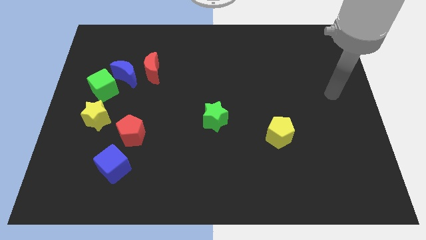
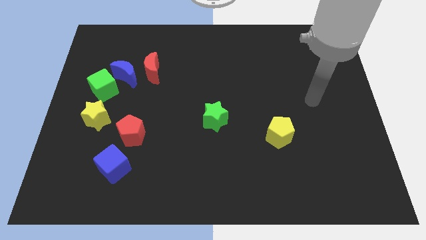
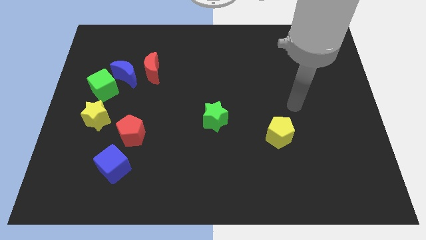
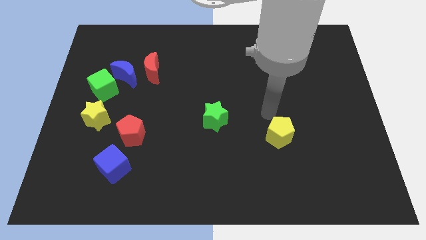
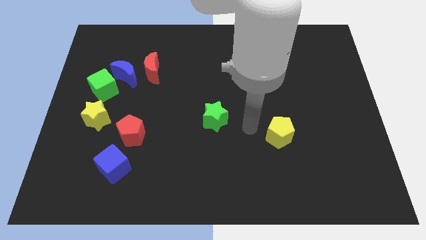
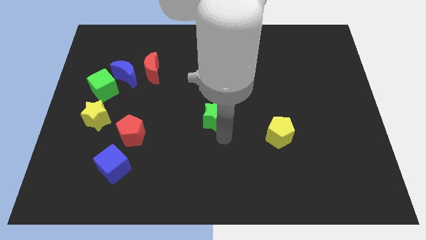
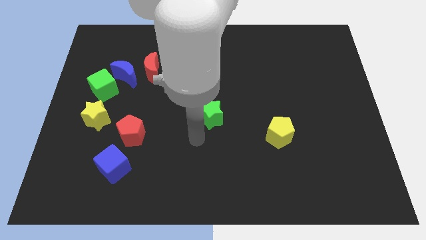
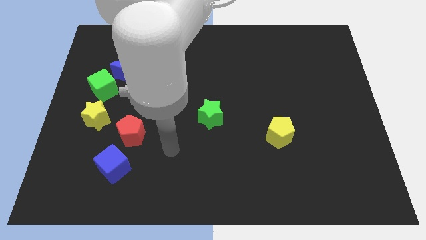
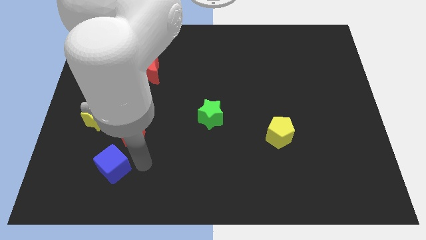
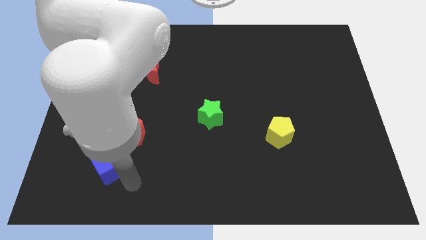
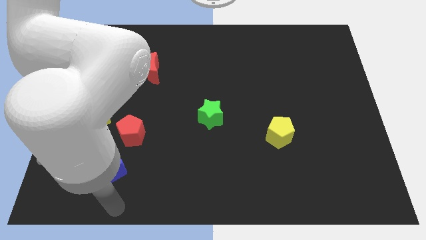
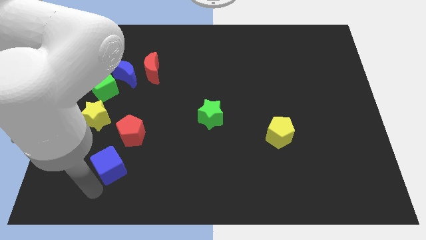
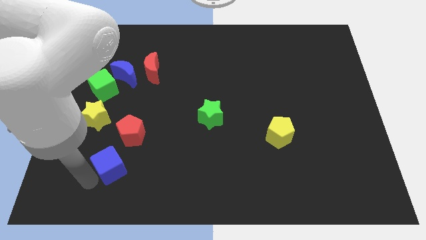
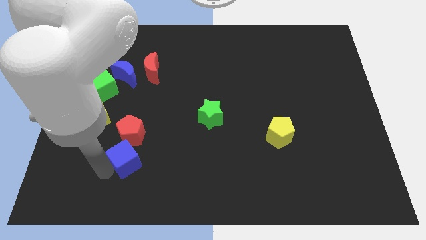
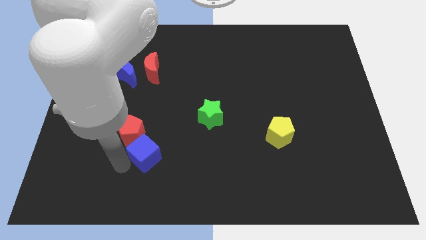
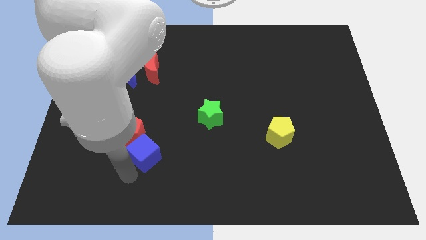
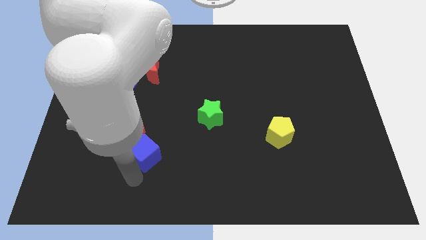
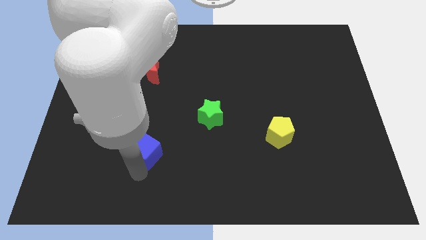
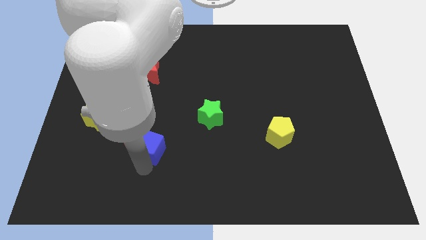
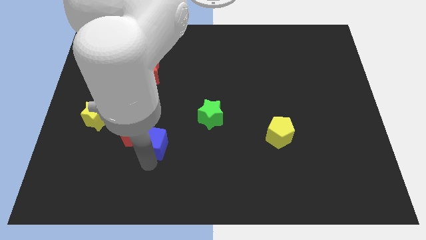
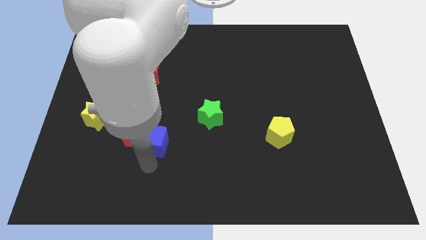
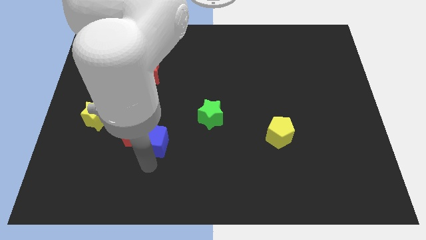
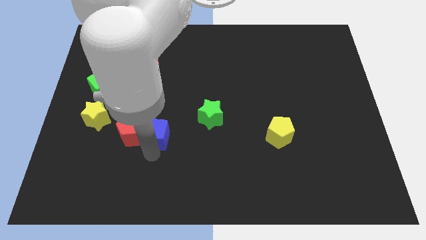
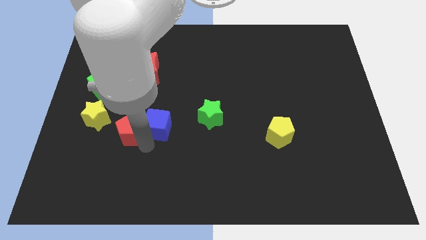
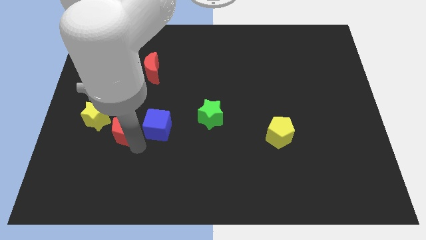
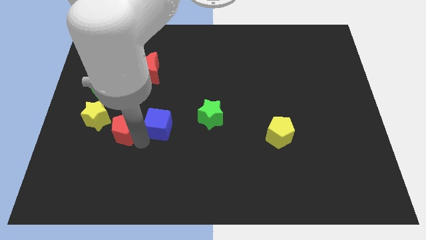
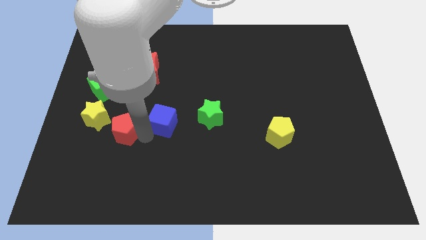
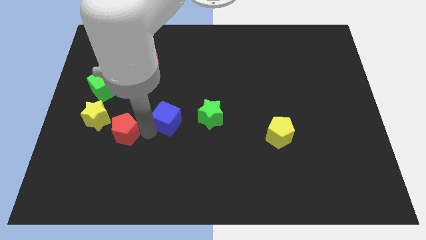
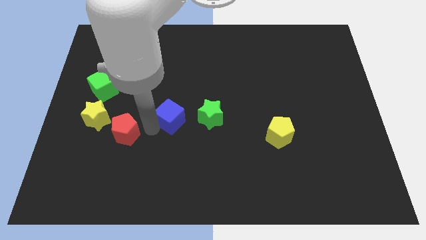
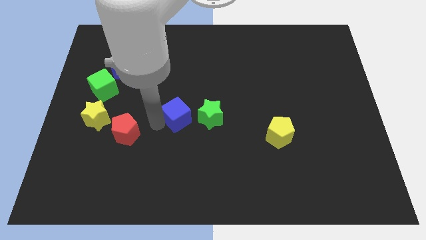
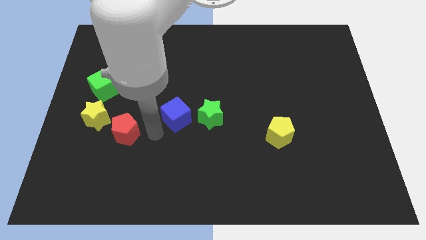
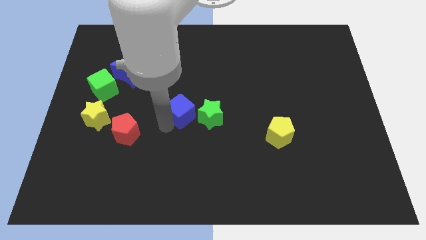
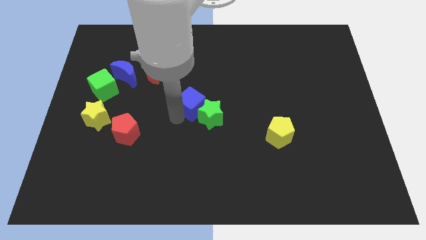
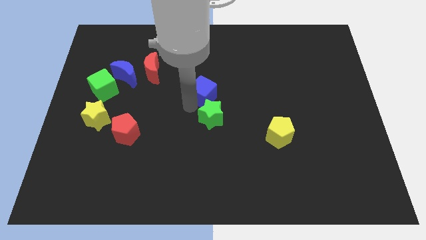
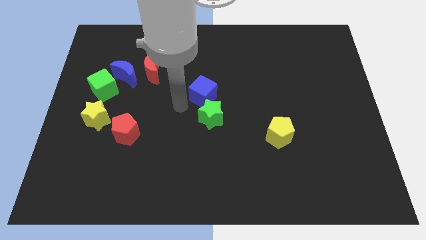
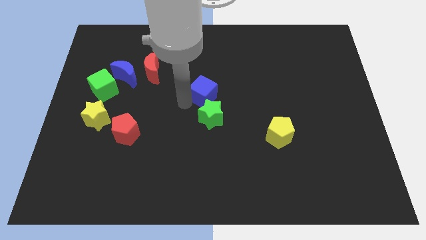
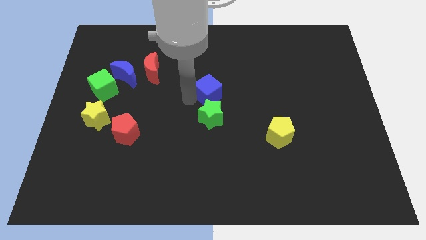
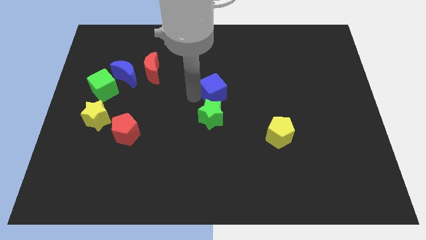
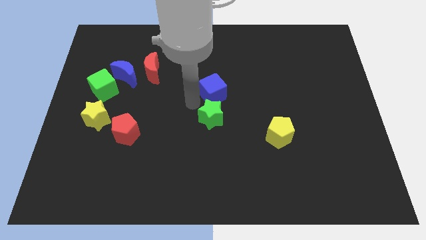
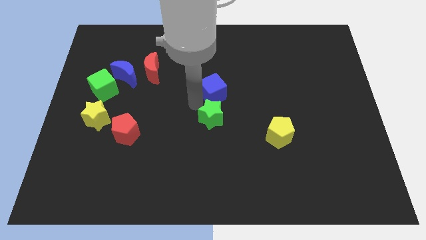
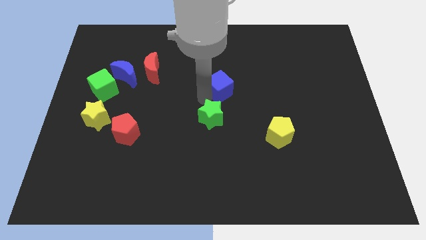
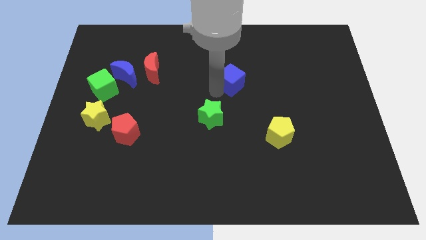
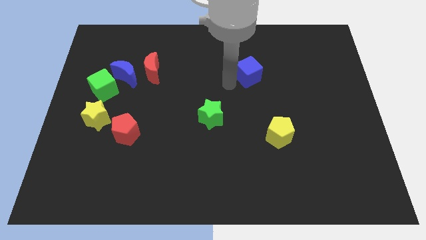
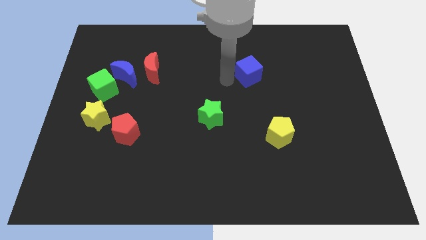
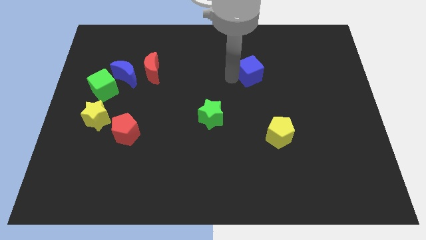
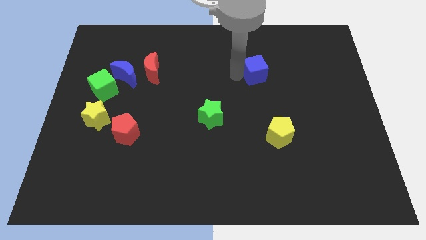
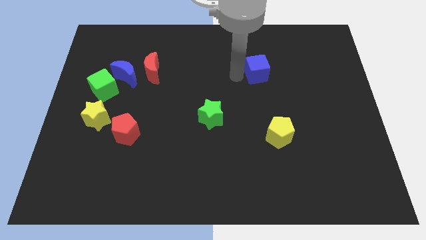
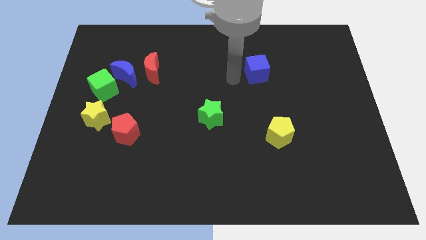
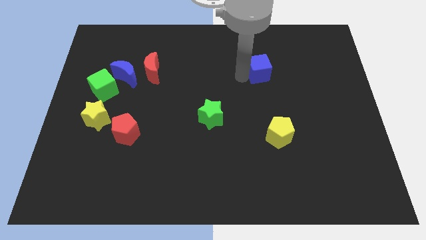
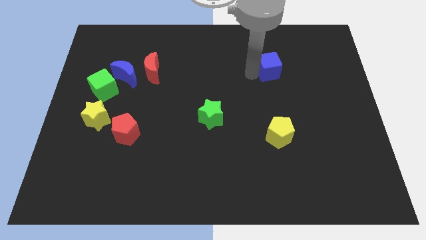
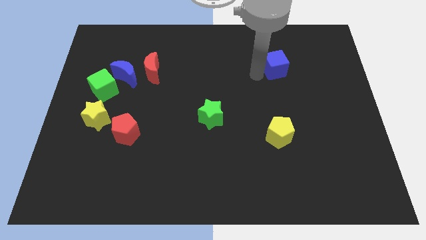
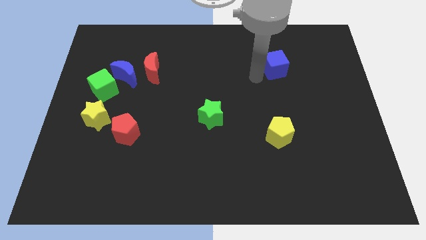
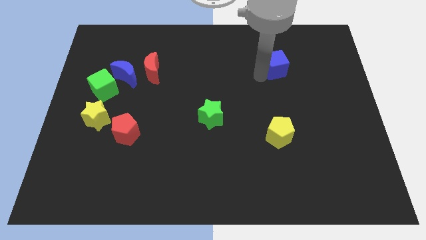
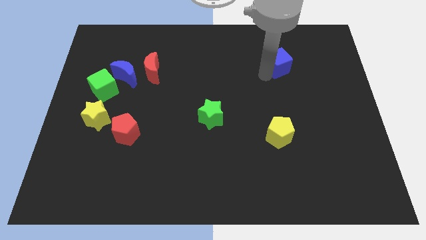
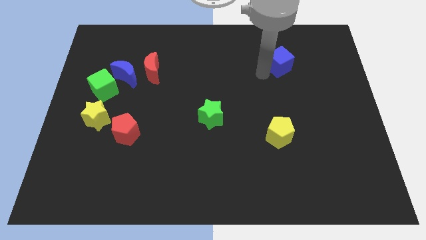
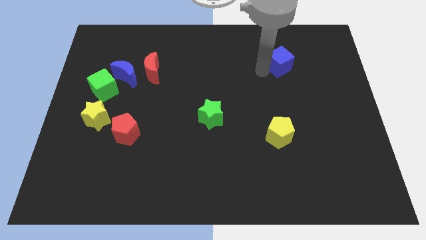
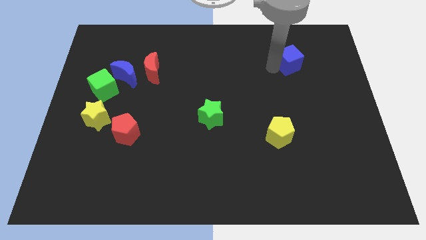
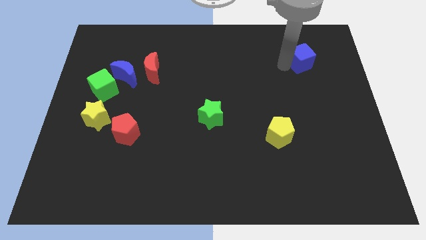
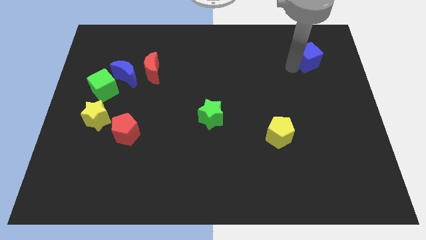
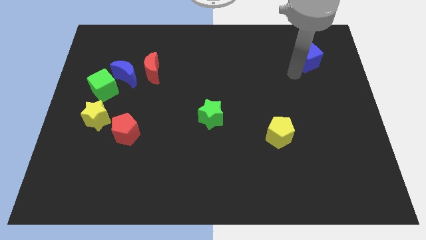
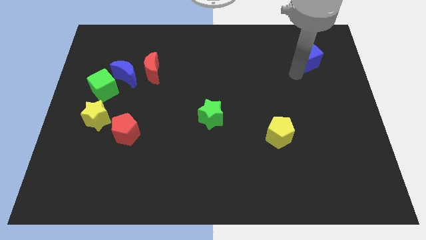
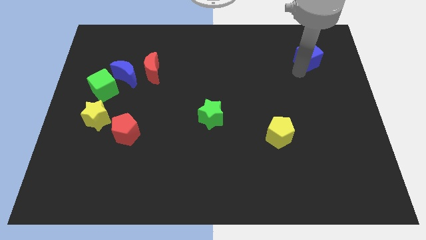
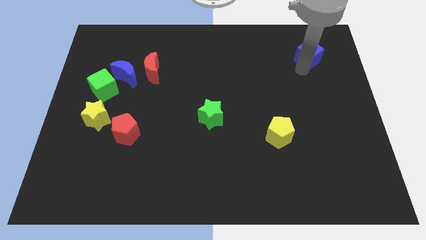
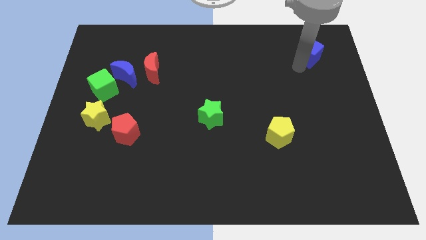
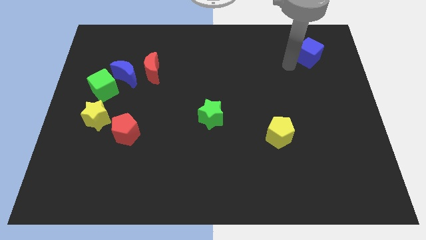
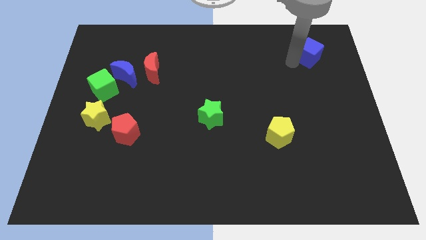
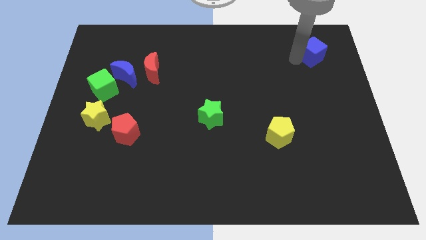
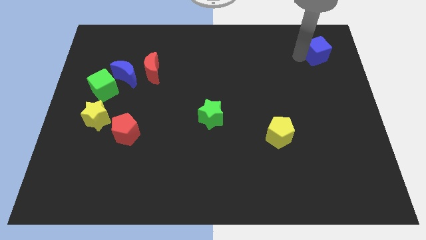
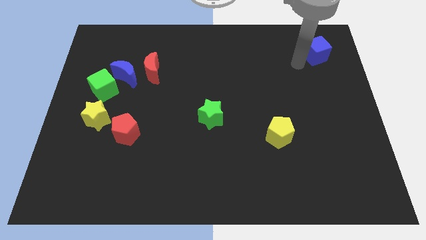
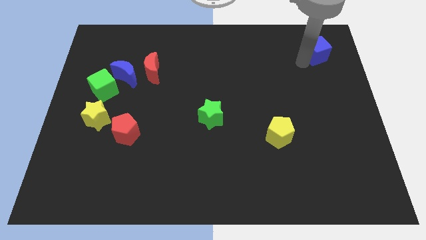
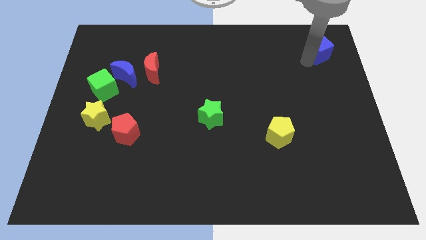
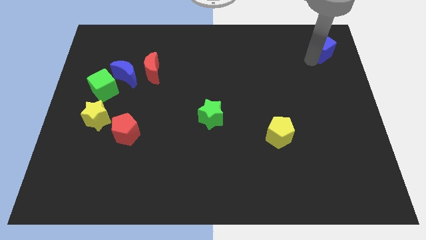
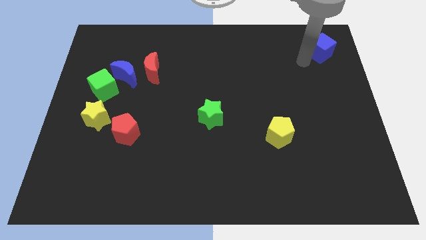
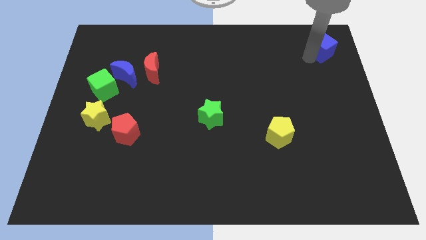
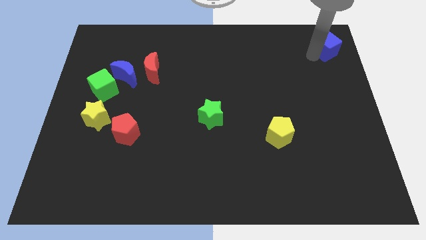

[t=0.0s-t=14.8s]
put the blue cube to the upper right corner

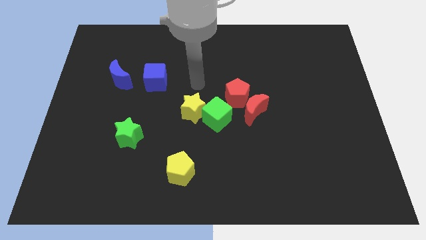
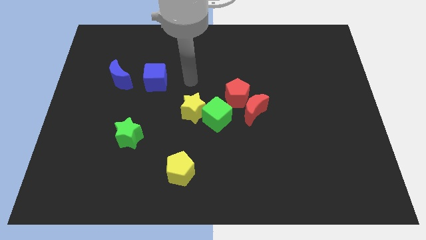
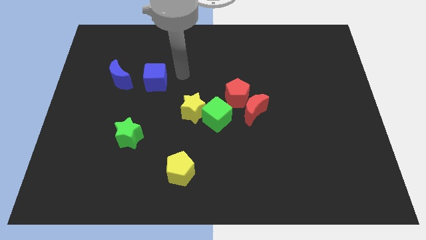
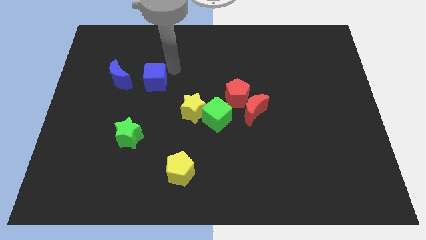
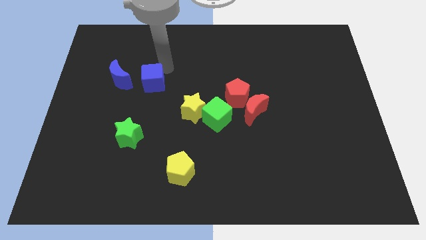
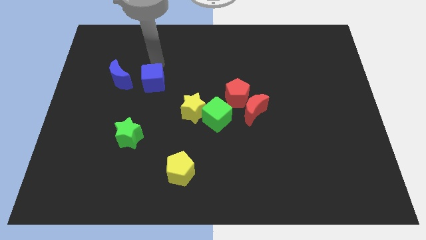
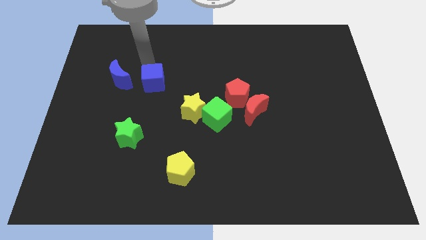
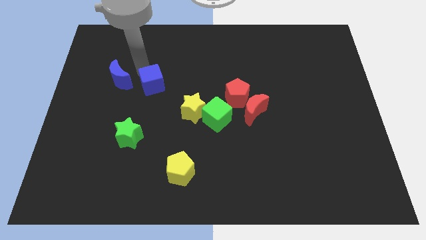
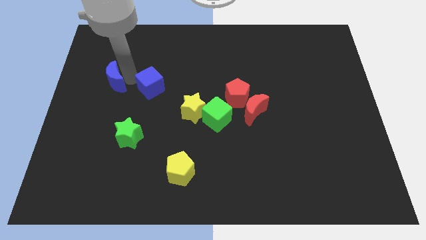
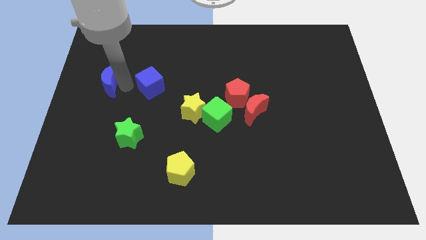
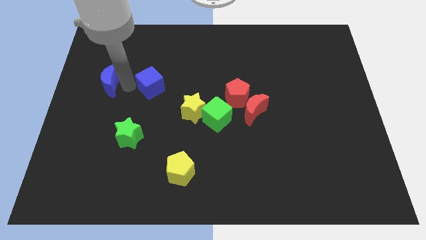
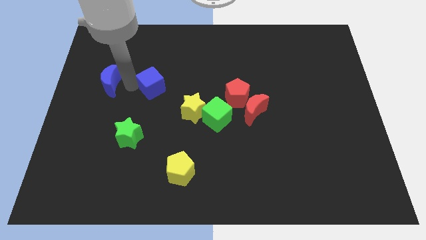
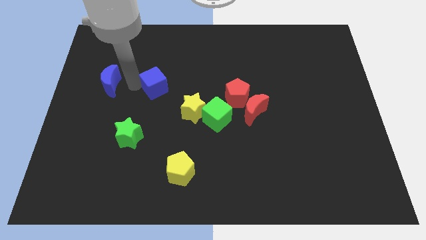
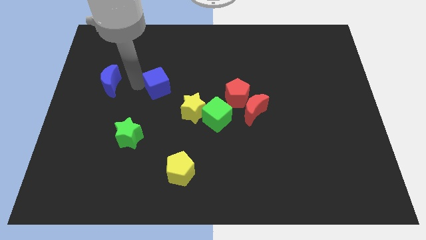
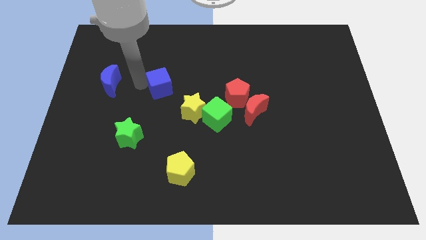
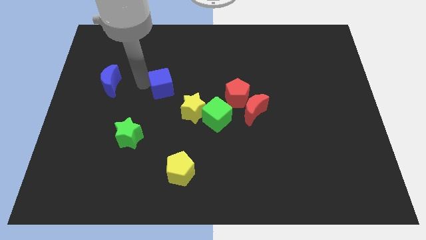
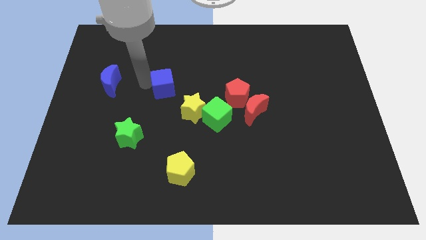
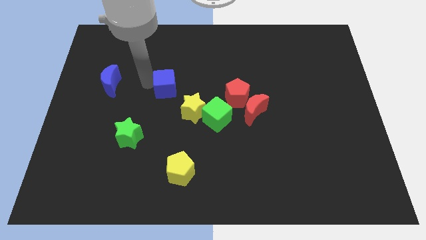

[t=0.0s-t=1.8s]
move the blue cube to the center
